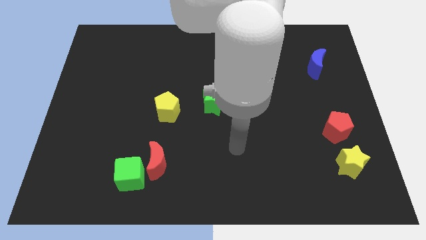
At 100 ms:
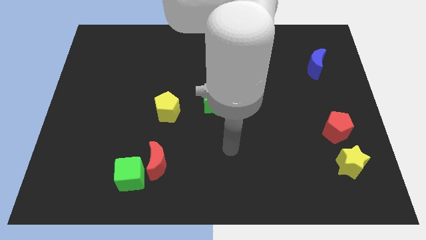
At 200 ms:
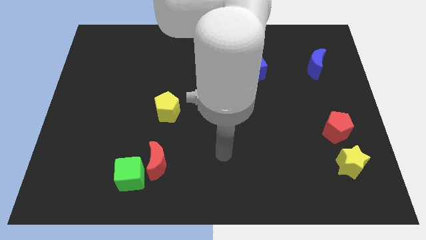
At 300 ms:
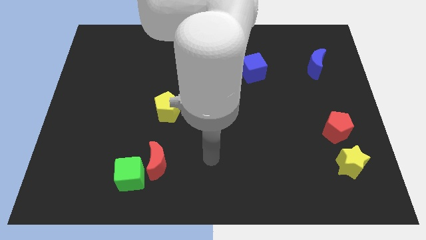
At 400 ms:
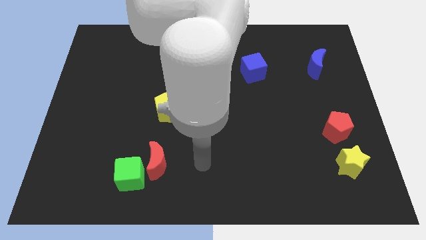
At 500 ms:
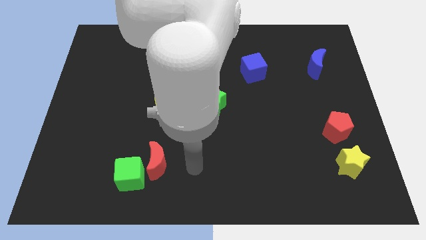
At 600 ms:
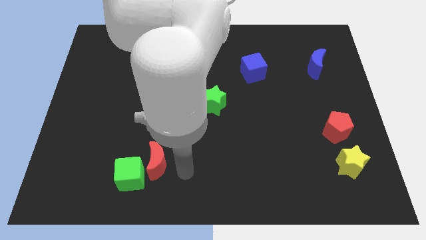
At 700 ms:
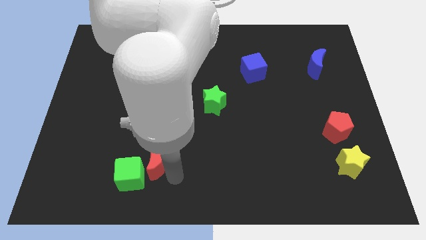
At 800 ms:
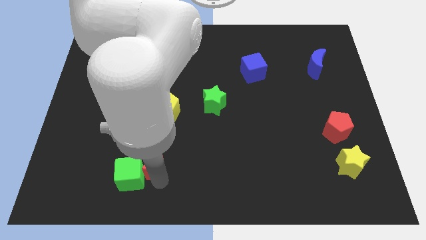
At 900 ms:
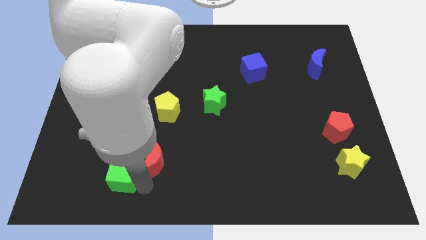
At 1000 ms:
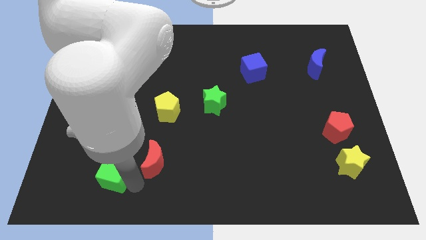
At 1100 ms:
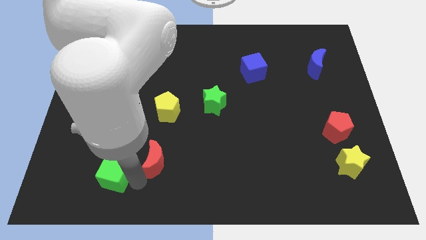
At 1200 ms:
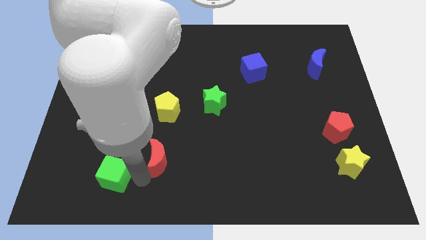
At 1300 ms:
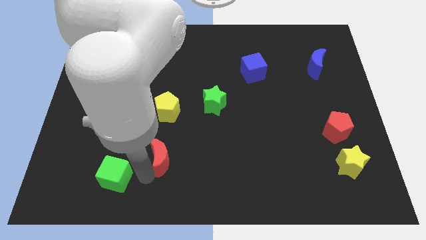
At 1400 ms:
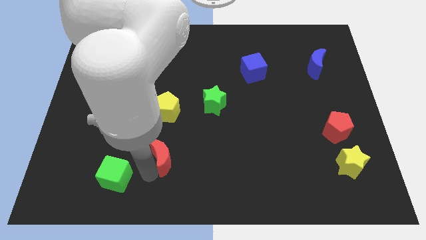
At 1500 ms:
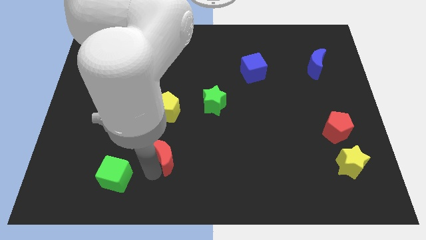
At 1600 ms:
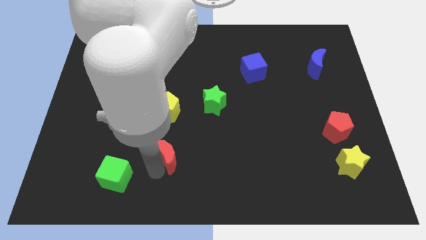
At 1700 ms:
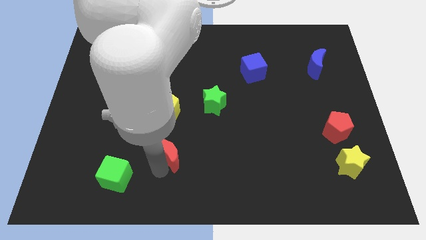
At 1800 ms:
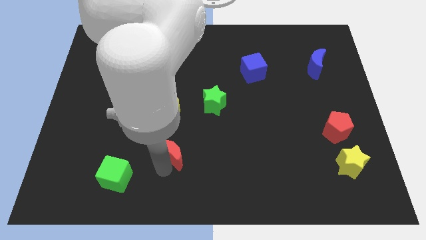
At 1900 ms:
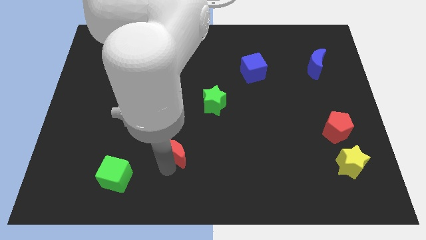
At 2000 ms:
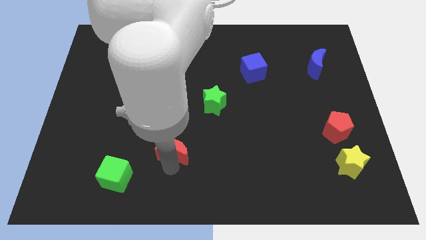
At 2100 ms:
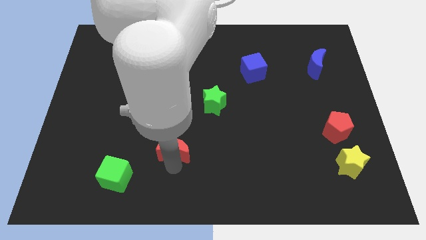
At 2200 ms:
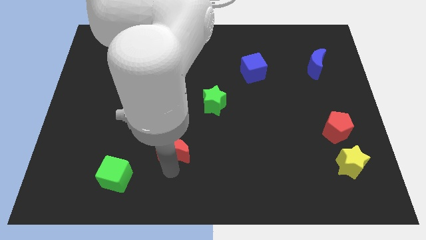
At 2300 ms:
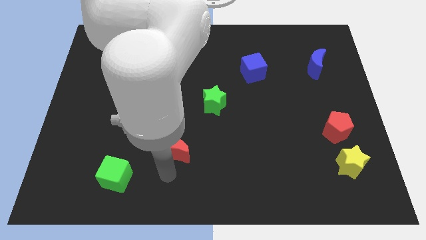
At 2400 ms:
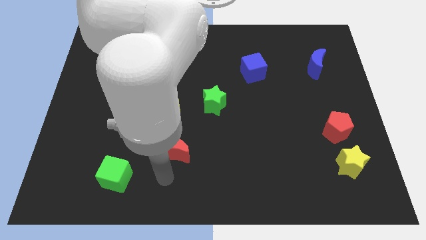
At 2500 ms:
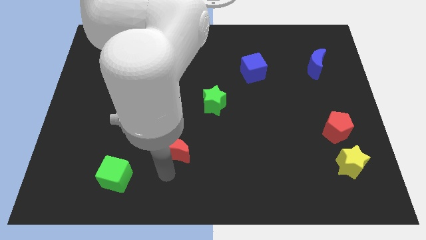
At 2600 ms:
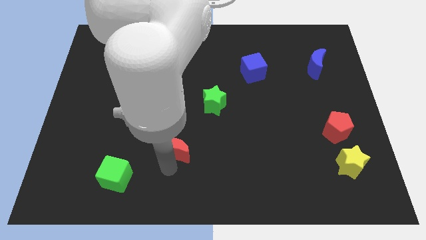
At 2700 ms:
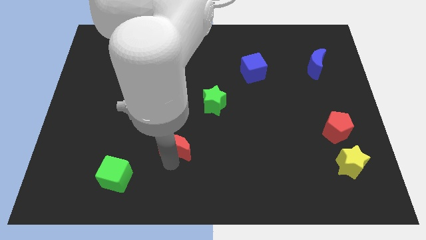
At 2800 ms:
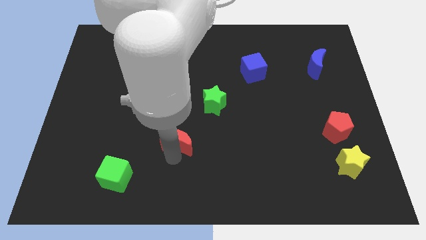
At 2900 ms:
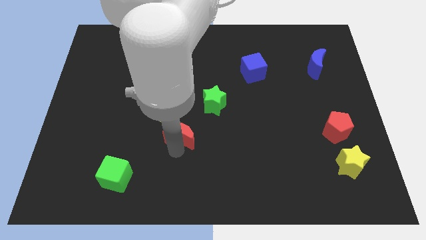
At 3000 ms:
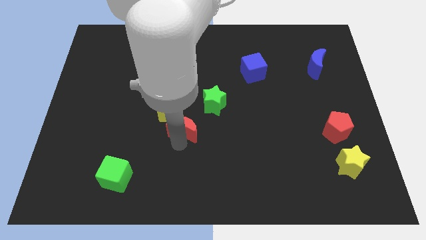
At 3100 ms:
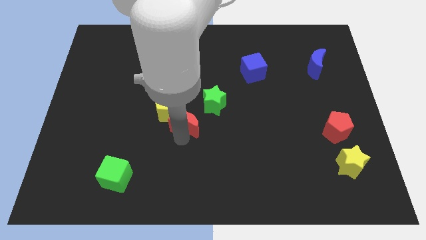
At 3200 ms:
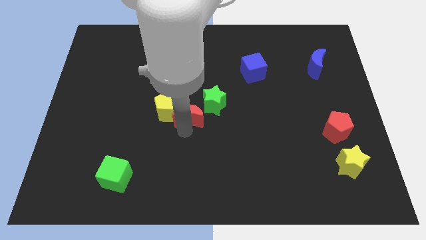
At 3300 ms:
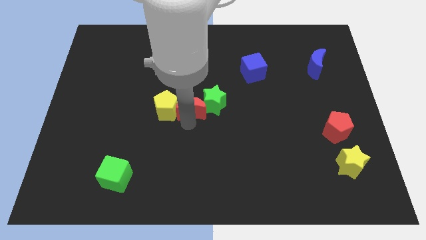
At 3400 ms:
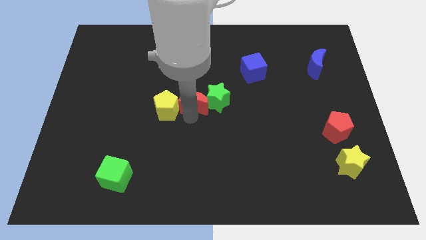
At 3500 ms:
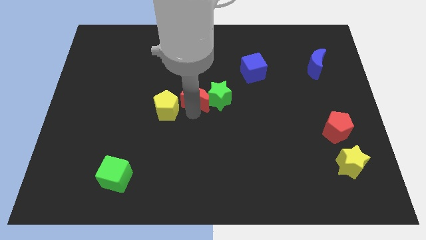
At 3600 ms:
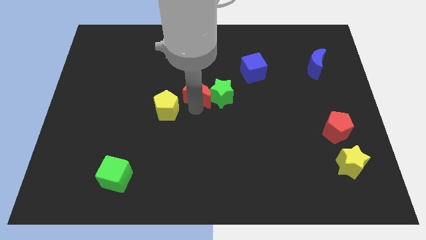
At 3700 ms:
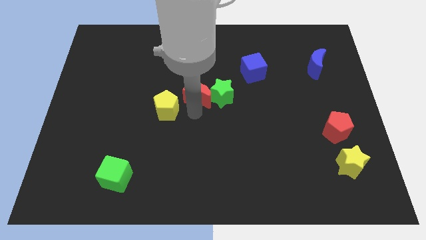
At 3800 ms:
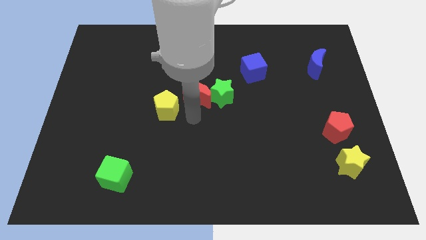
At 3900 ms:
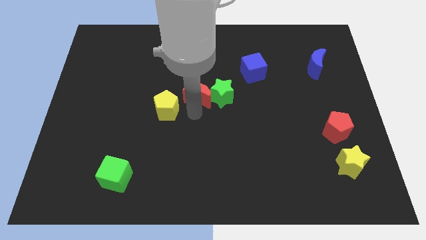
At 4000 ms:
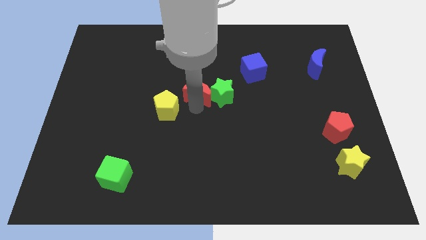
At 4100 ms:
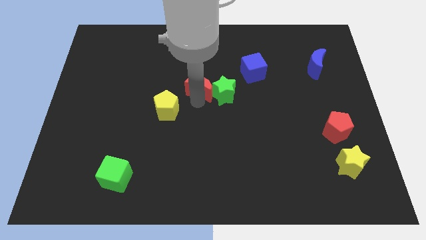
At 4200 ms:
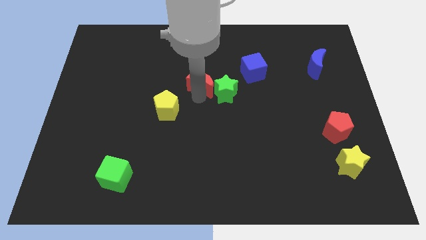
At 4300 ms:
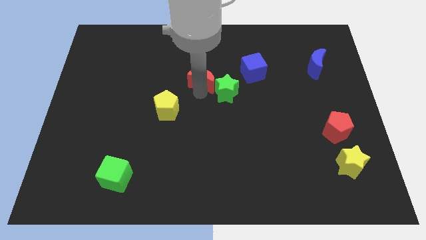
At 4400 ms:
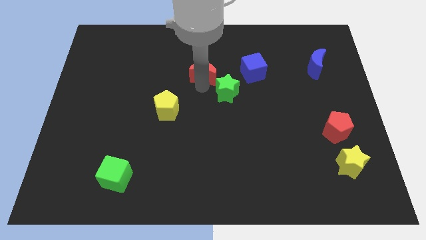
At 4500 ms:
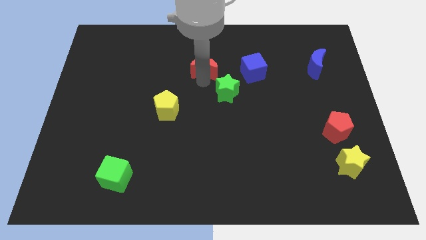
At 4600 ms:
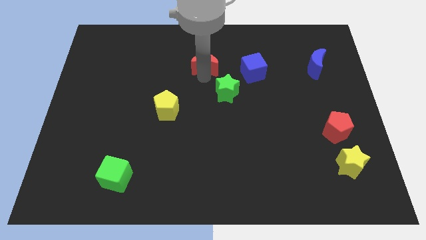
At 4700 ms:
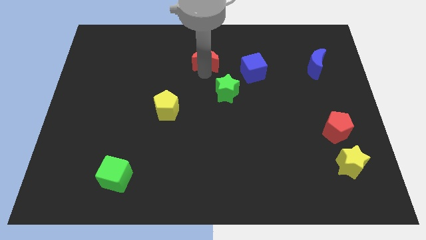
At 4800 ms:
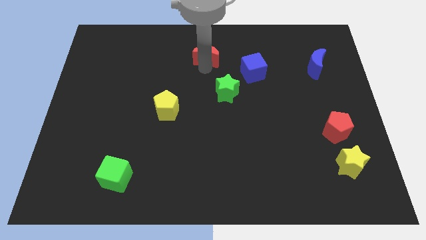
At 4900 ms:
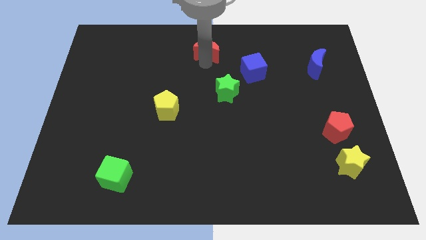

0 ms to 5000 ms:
slide the red moon to the top

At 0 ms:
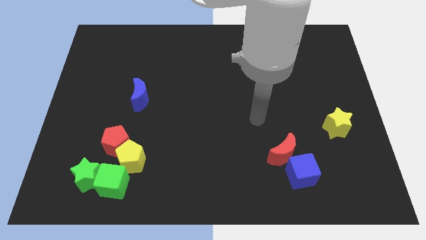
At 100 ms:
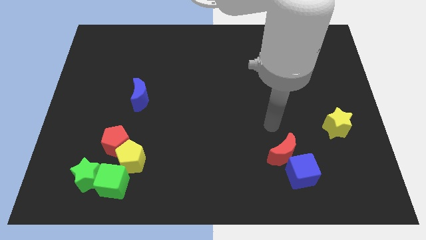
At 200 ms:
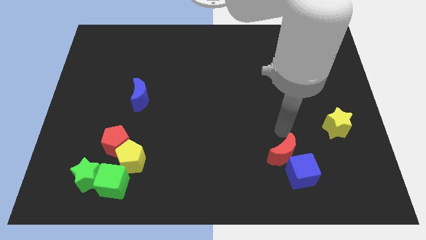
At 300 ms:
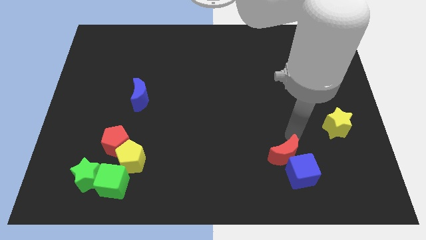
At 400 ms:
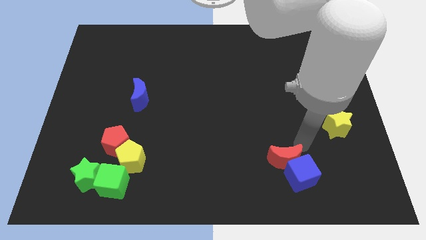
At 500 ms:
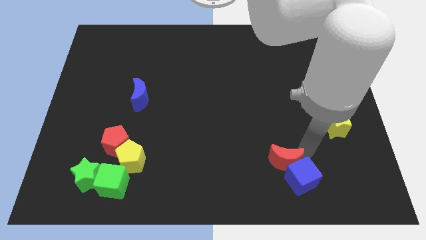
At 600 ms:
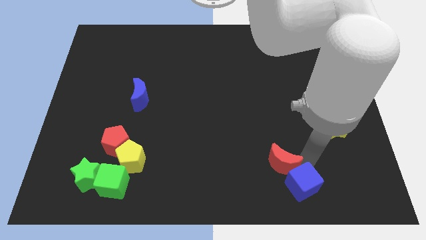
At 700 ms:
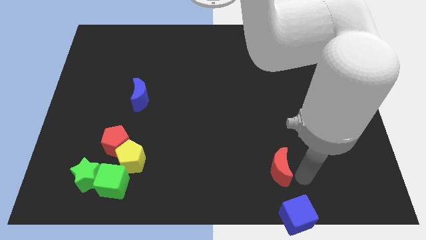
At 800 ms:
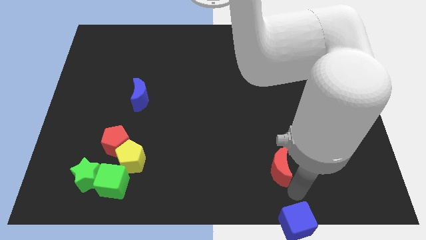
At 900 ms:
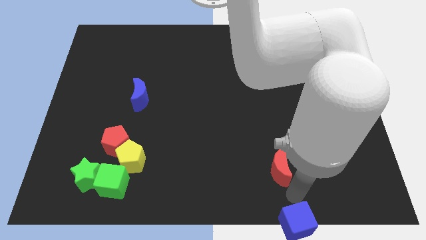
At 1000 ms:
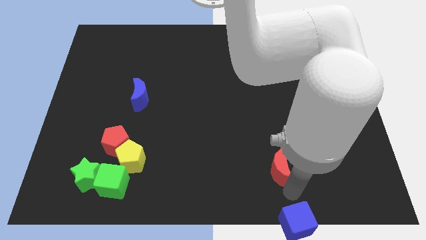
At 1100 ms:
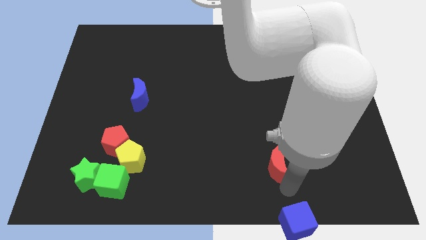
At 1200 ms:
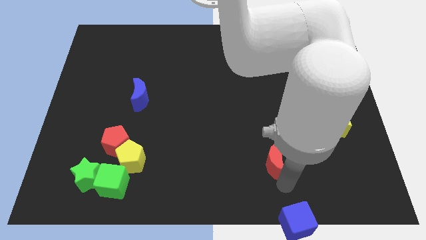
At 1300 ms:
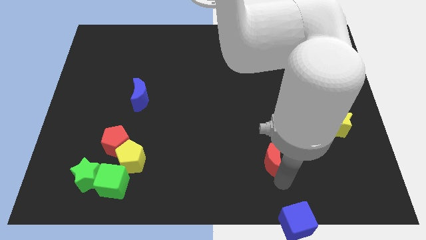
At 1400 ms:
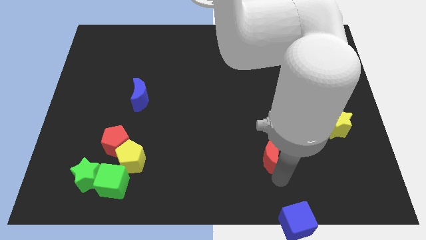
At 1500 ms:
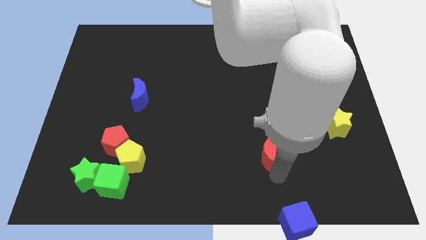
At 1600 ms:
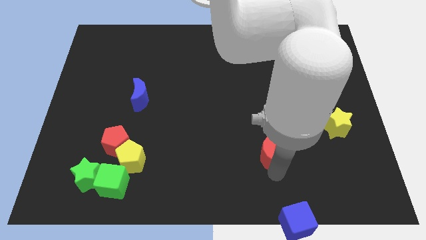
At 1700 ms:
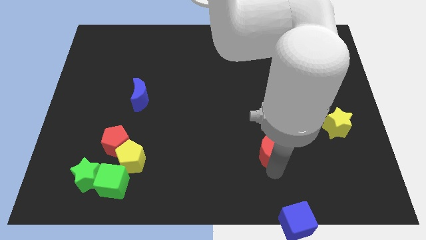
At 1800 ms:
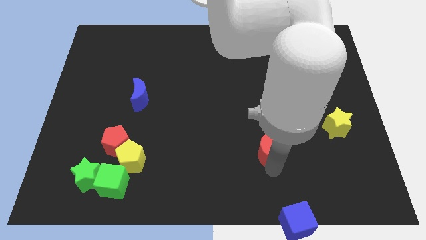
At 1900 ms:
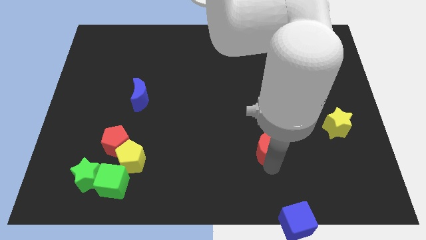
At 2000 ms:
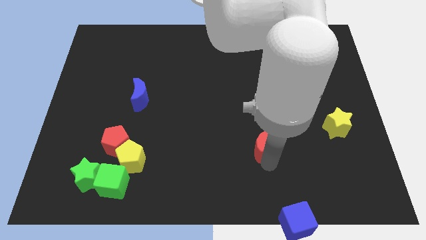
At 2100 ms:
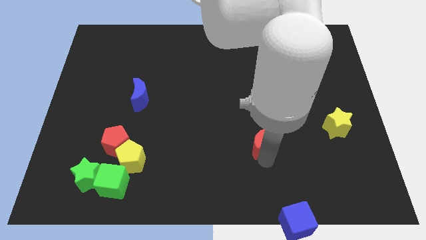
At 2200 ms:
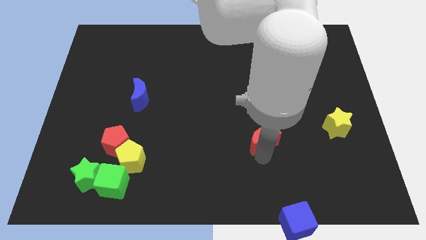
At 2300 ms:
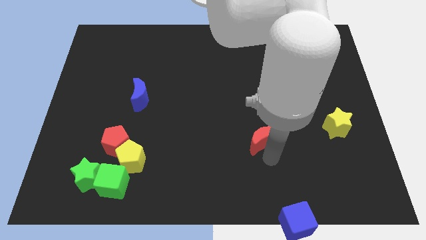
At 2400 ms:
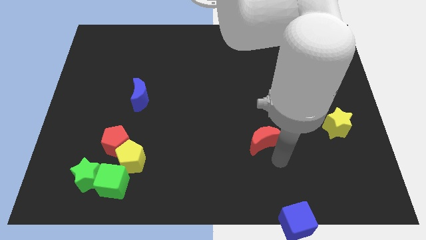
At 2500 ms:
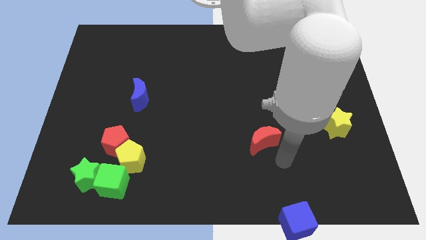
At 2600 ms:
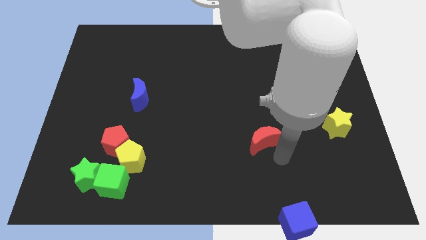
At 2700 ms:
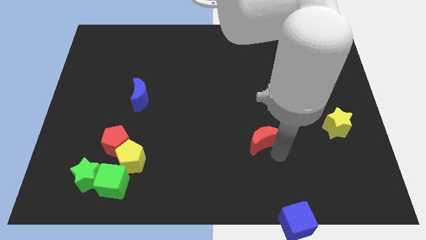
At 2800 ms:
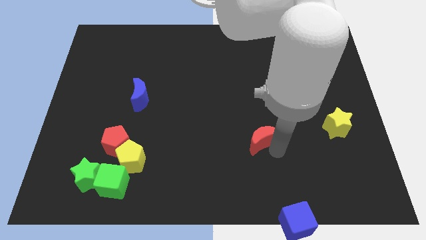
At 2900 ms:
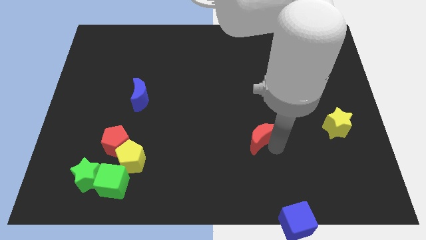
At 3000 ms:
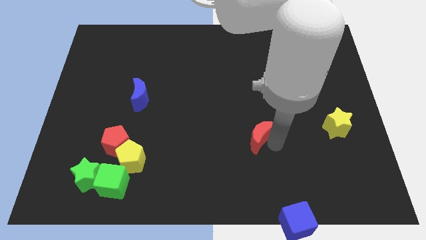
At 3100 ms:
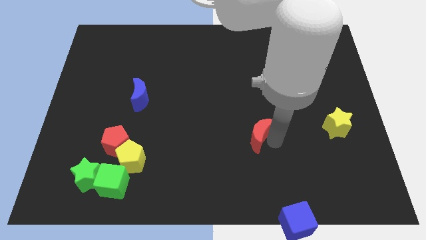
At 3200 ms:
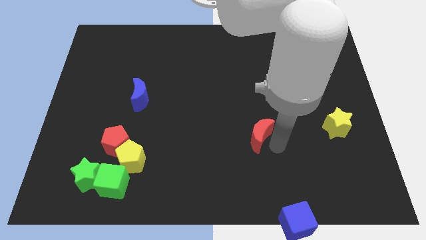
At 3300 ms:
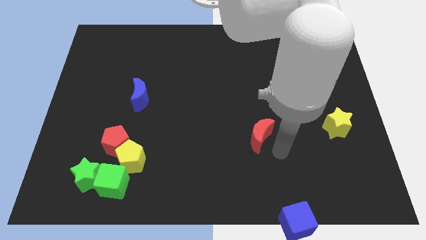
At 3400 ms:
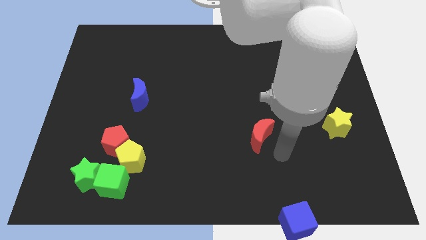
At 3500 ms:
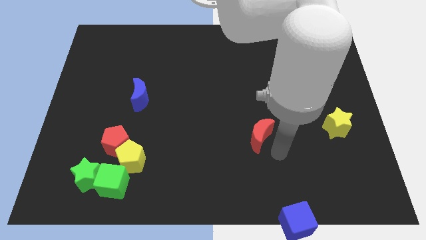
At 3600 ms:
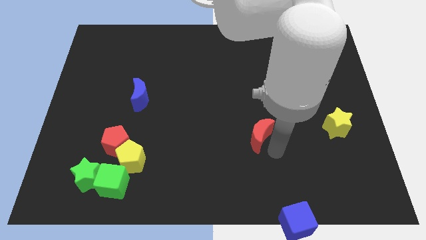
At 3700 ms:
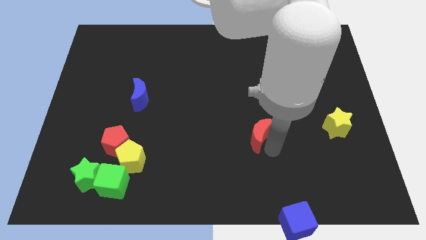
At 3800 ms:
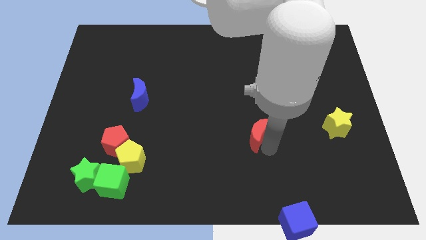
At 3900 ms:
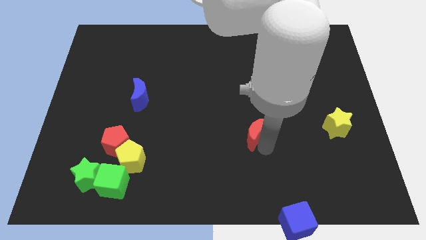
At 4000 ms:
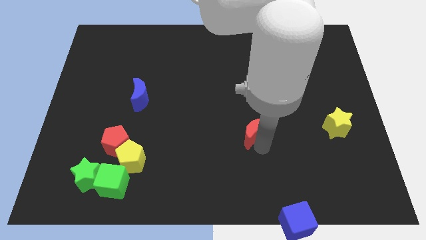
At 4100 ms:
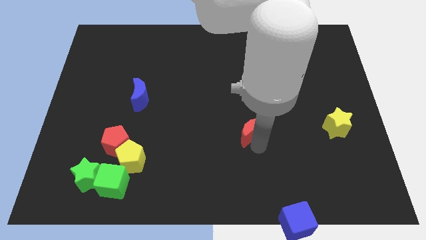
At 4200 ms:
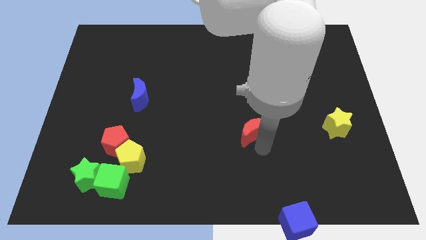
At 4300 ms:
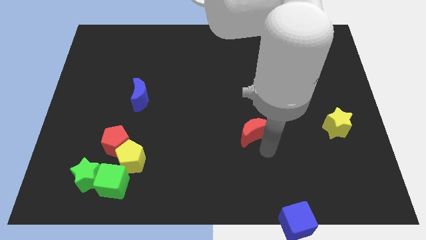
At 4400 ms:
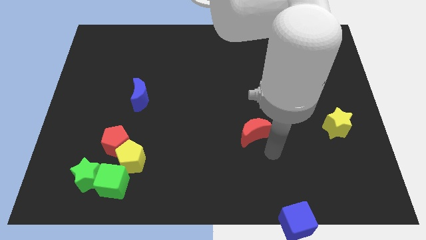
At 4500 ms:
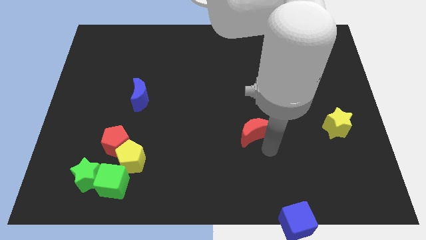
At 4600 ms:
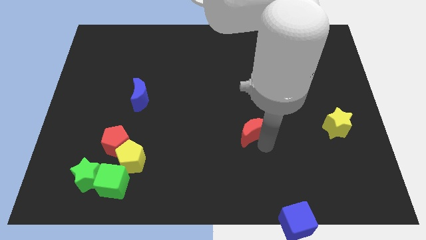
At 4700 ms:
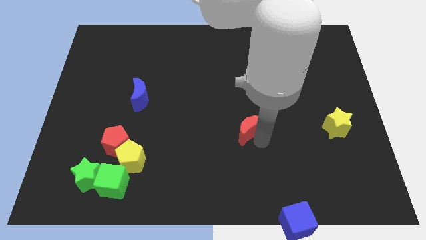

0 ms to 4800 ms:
move the red moon to the middle of the board
